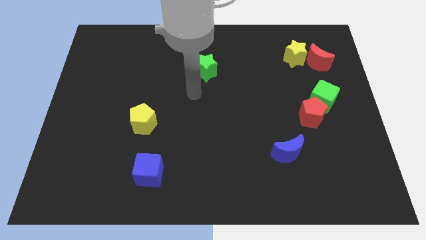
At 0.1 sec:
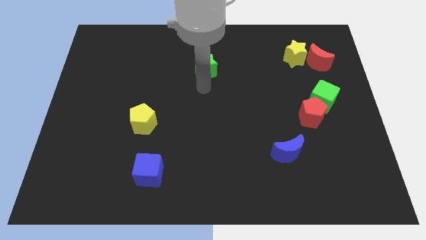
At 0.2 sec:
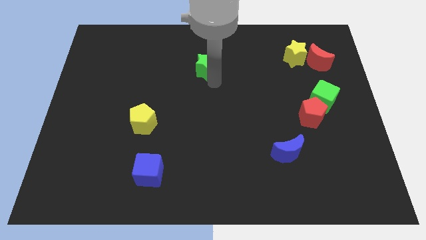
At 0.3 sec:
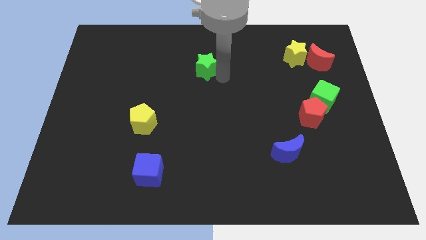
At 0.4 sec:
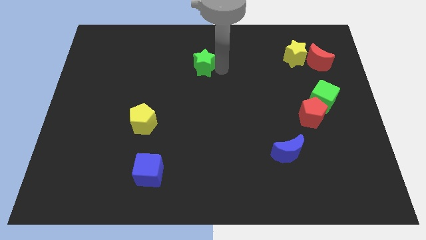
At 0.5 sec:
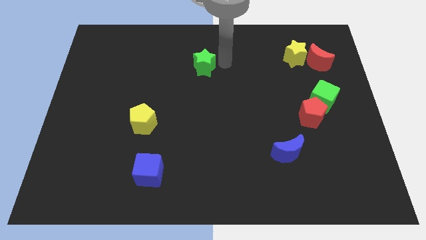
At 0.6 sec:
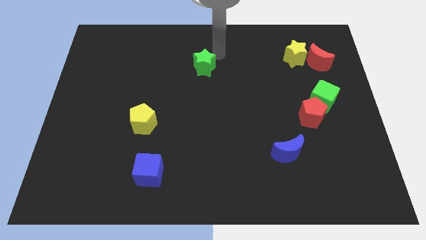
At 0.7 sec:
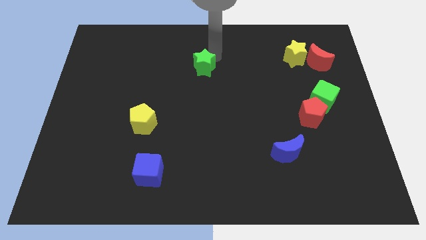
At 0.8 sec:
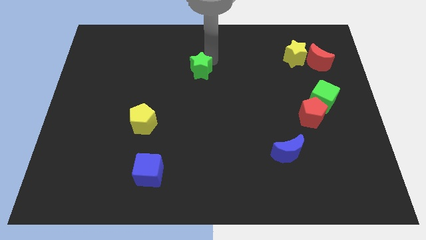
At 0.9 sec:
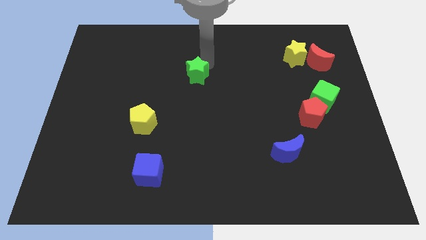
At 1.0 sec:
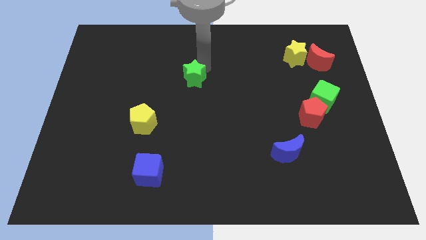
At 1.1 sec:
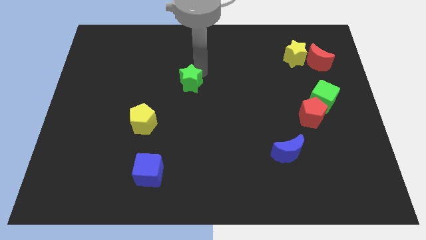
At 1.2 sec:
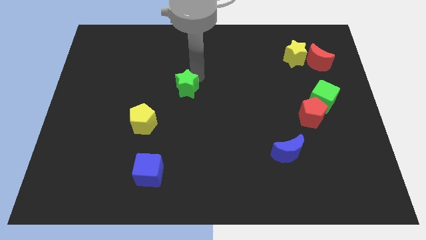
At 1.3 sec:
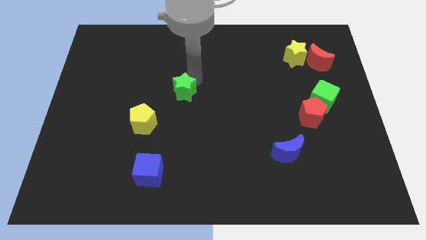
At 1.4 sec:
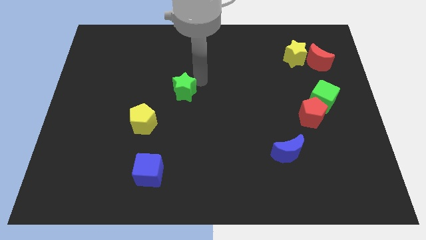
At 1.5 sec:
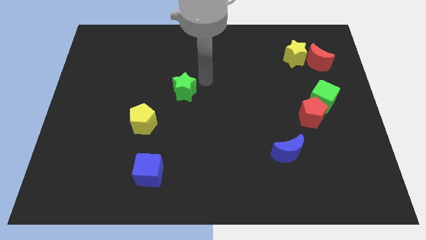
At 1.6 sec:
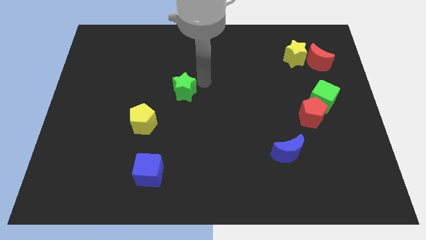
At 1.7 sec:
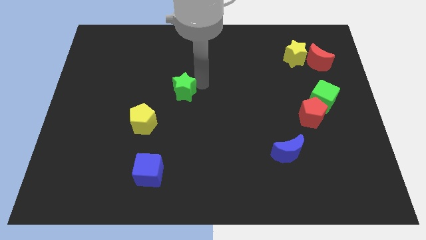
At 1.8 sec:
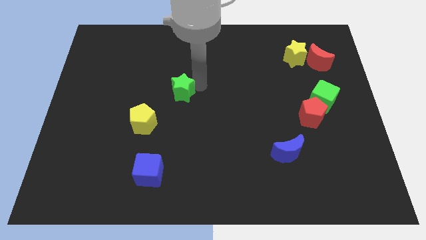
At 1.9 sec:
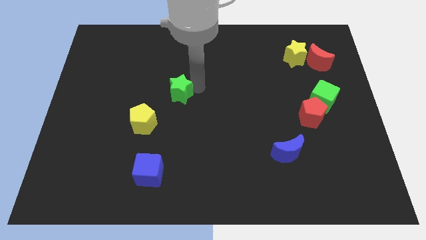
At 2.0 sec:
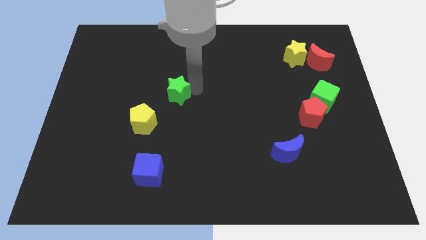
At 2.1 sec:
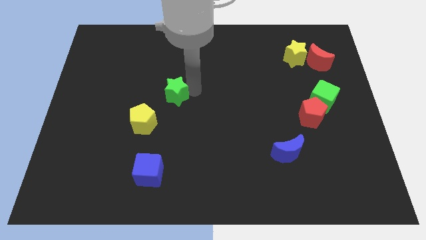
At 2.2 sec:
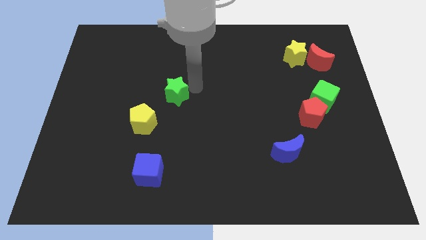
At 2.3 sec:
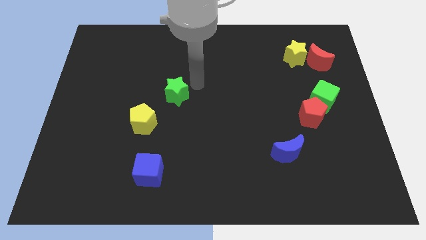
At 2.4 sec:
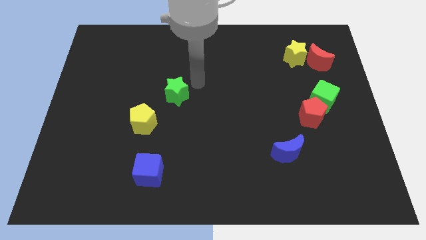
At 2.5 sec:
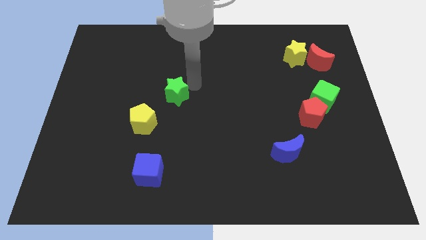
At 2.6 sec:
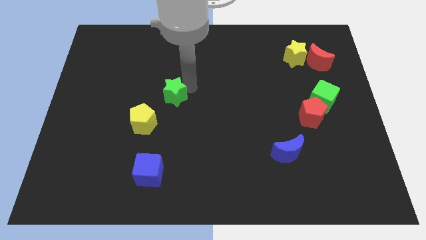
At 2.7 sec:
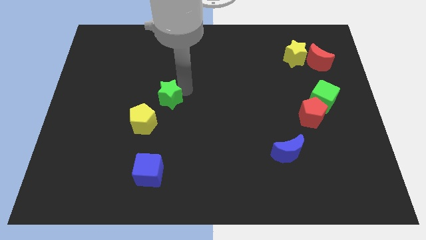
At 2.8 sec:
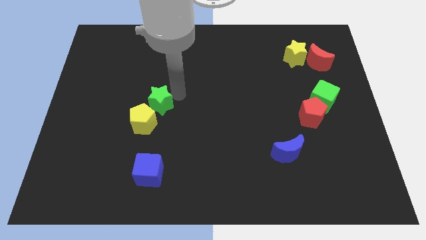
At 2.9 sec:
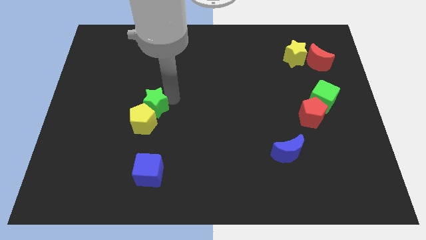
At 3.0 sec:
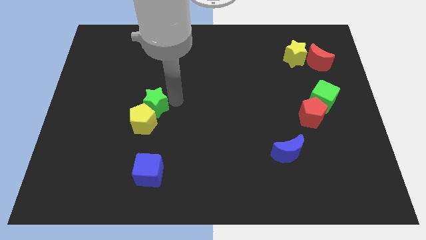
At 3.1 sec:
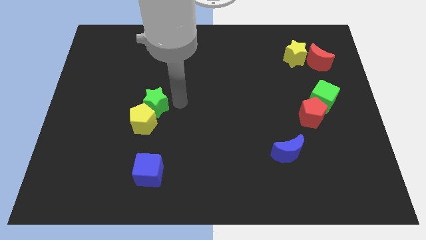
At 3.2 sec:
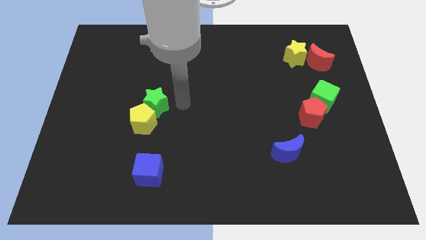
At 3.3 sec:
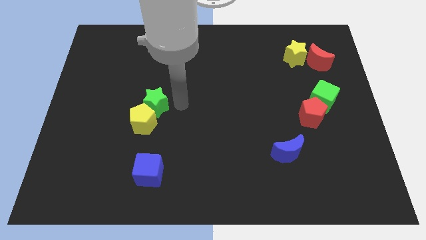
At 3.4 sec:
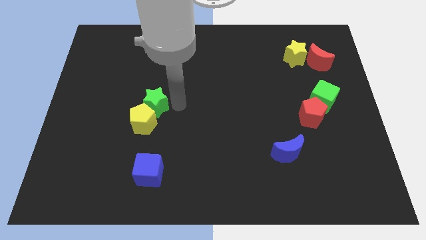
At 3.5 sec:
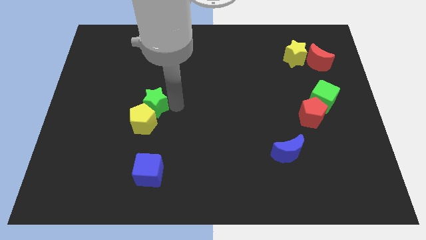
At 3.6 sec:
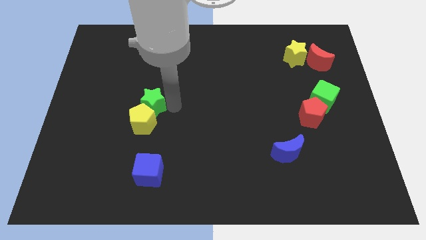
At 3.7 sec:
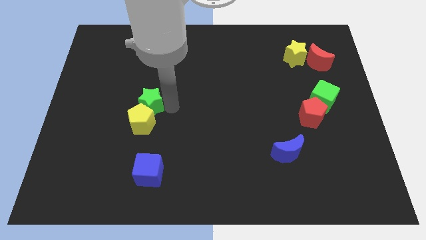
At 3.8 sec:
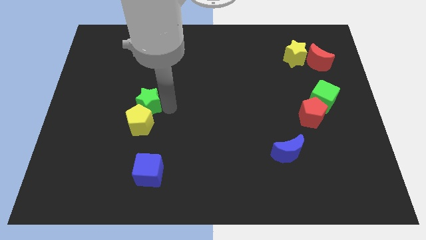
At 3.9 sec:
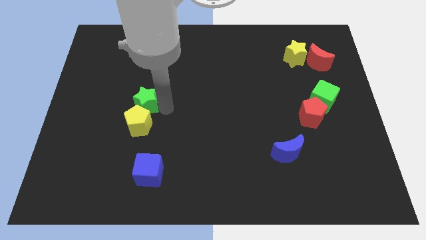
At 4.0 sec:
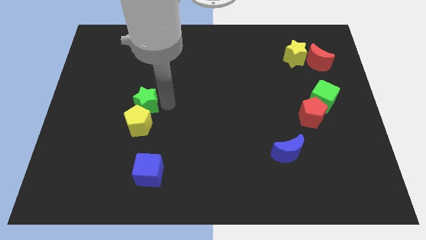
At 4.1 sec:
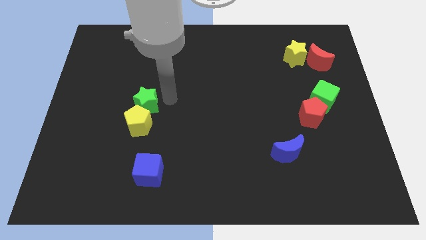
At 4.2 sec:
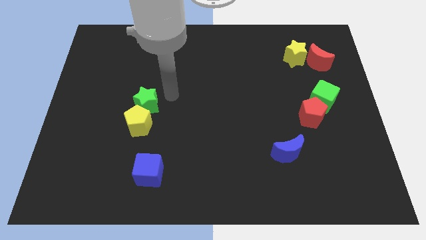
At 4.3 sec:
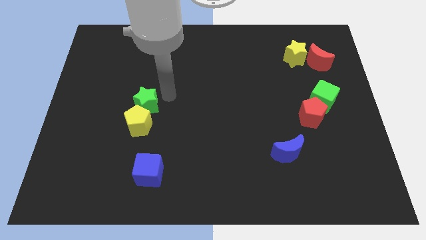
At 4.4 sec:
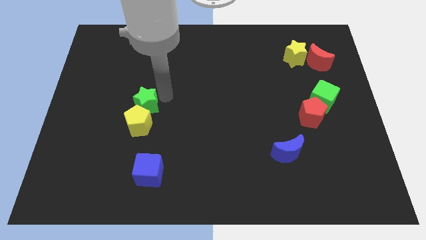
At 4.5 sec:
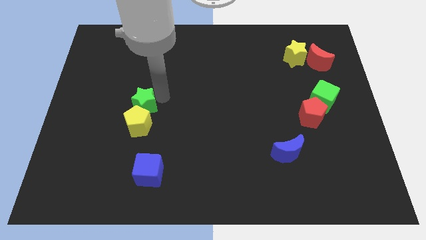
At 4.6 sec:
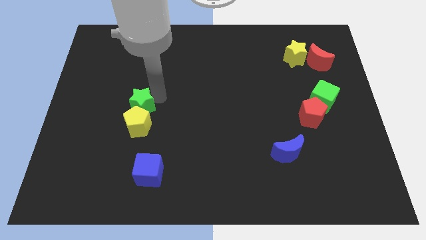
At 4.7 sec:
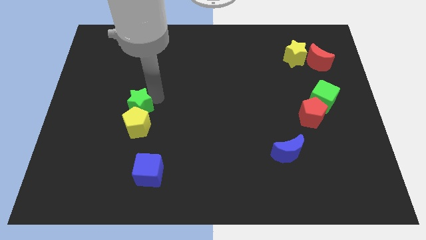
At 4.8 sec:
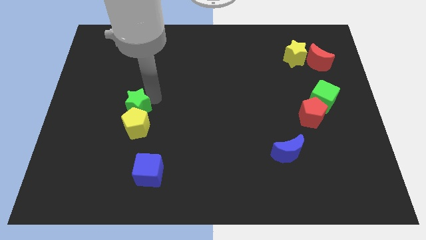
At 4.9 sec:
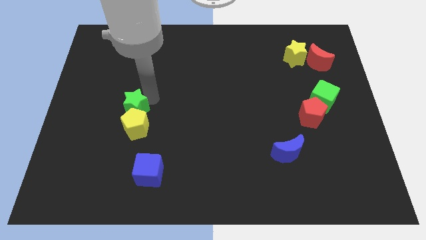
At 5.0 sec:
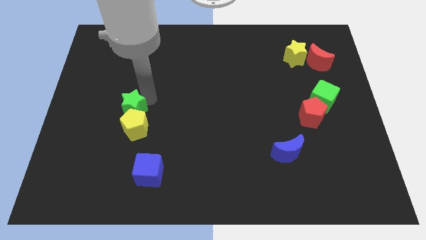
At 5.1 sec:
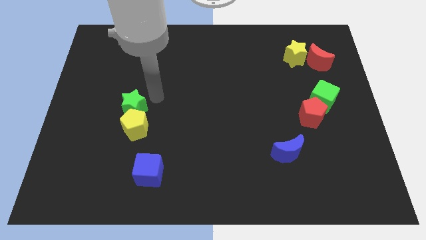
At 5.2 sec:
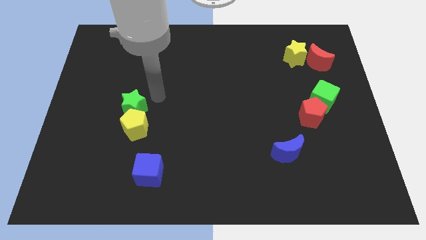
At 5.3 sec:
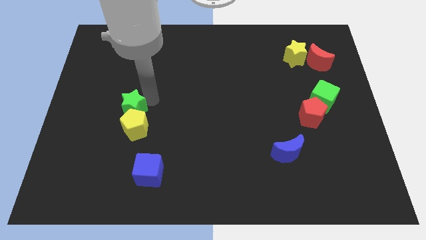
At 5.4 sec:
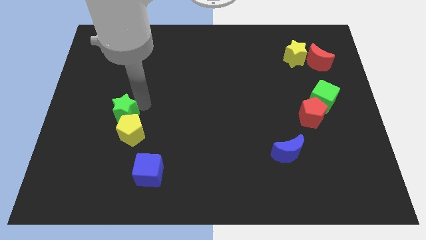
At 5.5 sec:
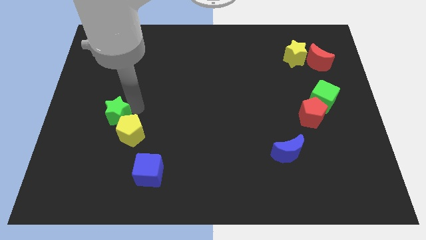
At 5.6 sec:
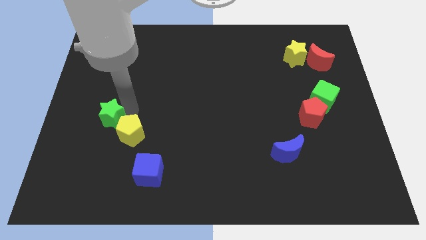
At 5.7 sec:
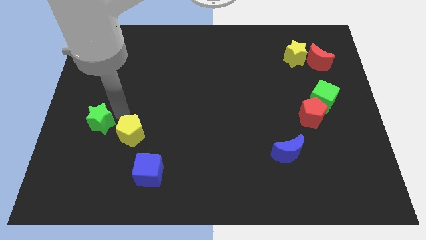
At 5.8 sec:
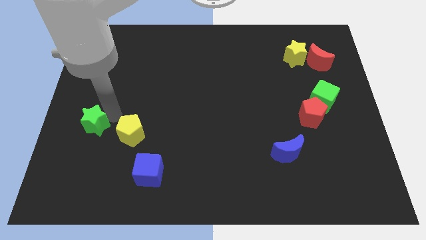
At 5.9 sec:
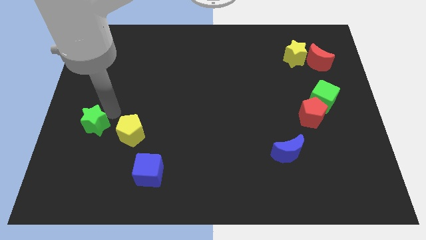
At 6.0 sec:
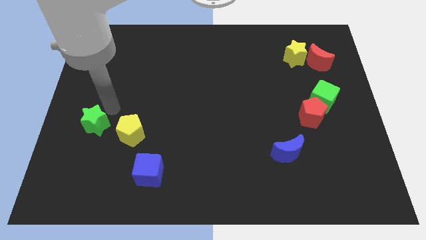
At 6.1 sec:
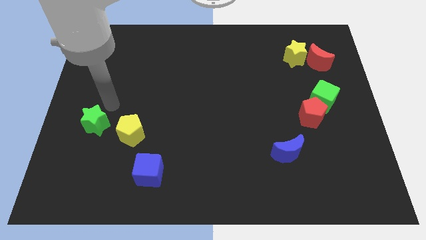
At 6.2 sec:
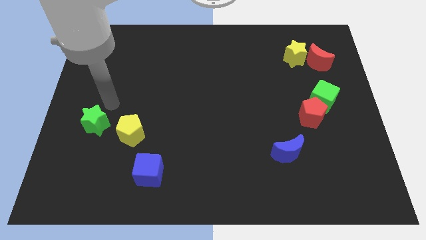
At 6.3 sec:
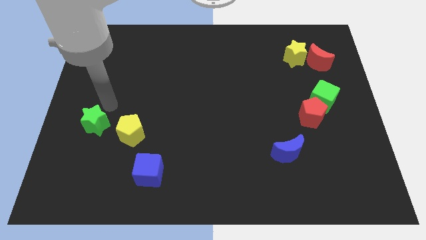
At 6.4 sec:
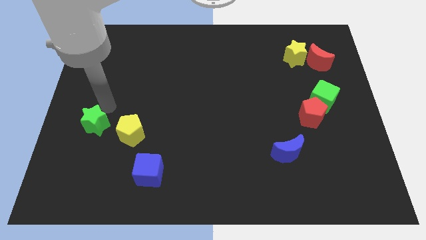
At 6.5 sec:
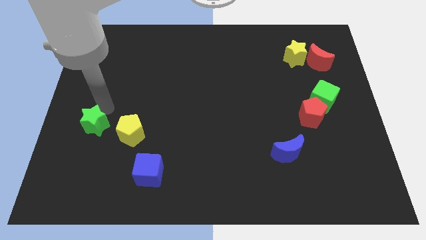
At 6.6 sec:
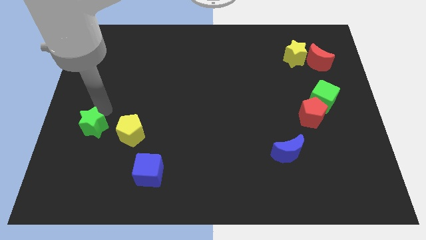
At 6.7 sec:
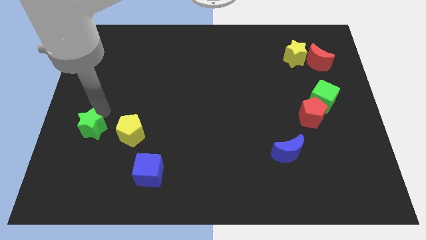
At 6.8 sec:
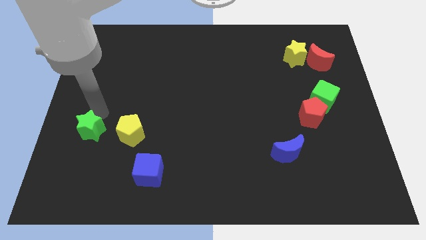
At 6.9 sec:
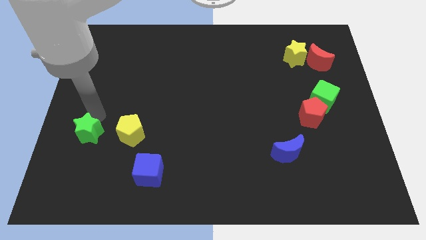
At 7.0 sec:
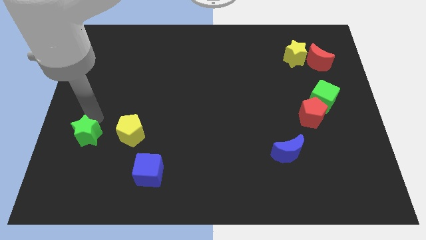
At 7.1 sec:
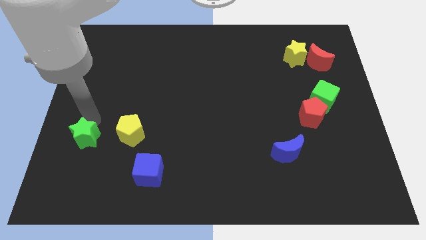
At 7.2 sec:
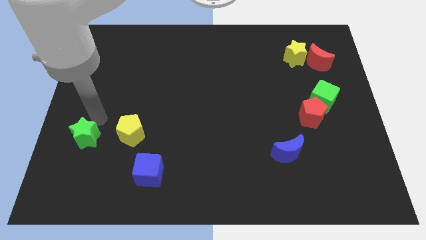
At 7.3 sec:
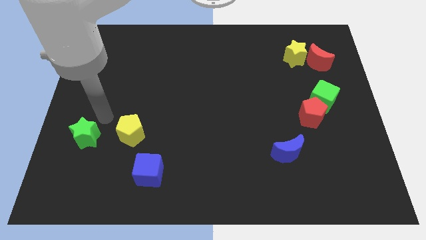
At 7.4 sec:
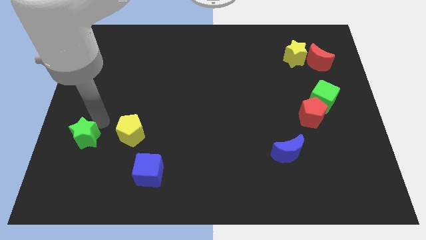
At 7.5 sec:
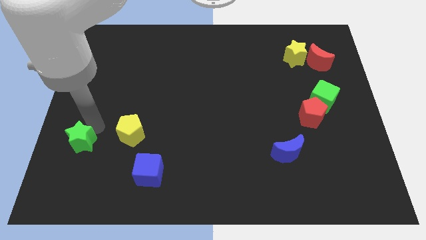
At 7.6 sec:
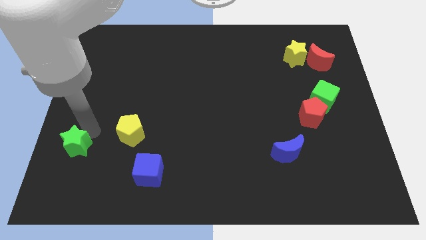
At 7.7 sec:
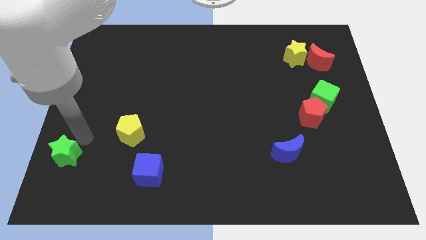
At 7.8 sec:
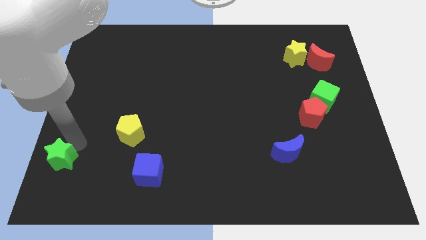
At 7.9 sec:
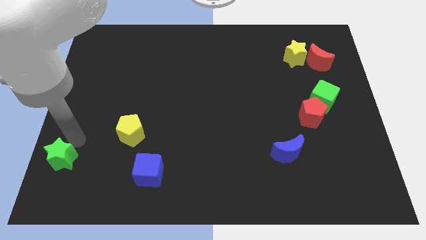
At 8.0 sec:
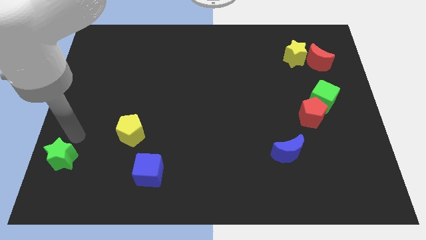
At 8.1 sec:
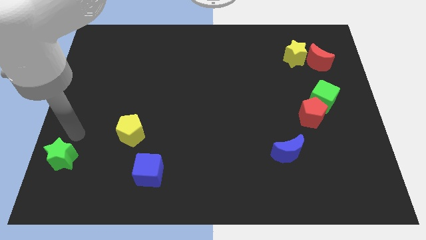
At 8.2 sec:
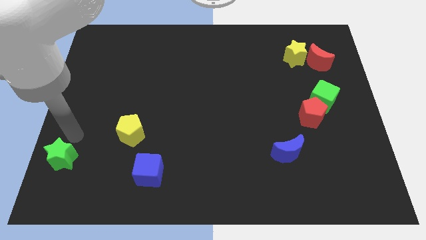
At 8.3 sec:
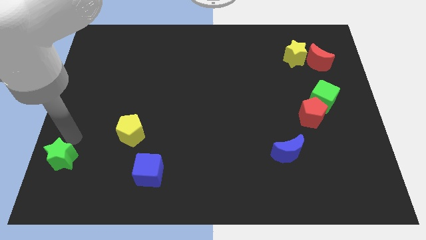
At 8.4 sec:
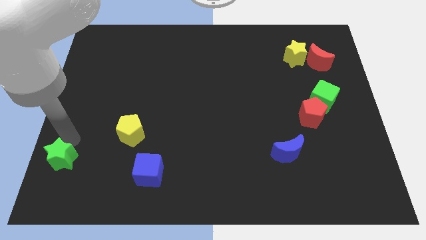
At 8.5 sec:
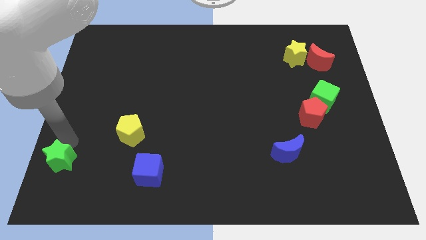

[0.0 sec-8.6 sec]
push the green star to the lower left corner
